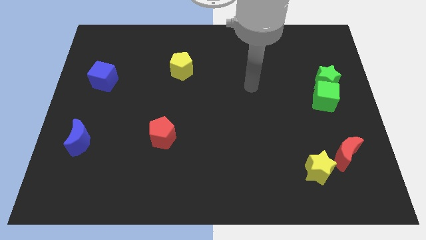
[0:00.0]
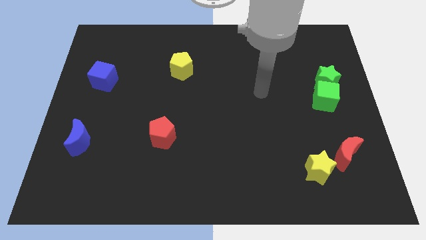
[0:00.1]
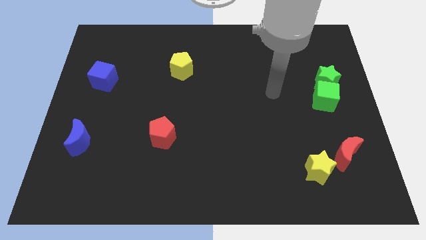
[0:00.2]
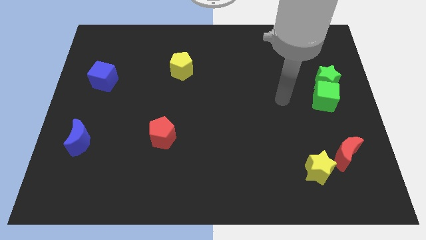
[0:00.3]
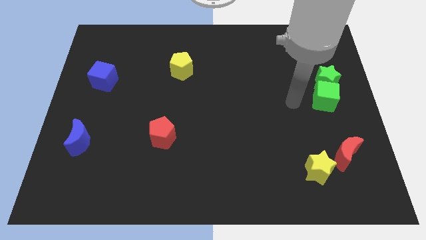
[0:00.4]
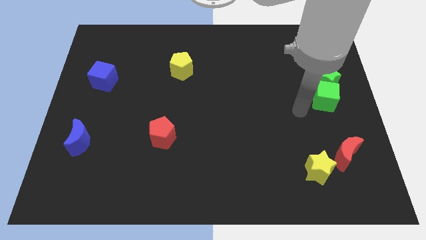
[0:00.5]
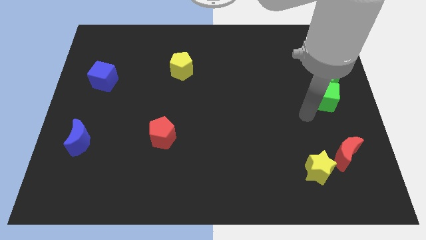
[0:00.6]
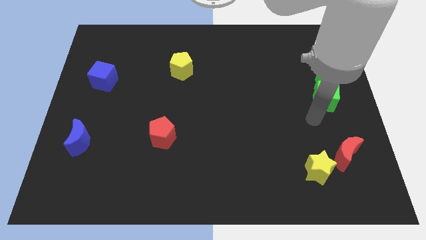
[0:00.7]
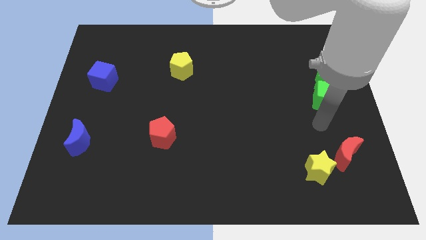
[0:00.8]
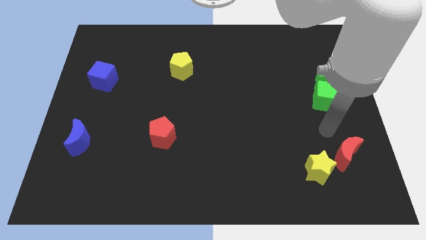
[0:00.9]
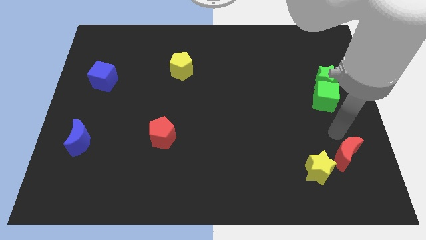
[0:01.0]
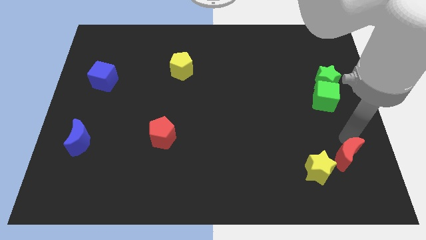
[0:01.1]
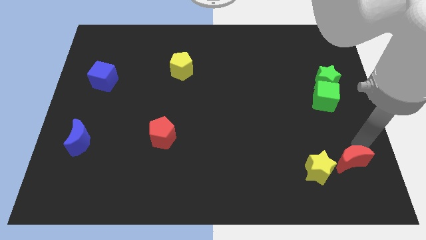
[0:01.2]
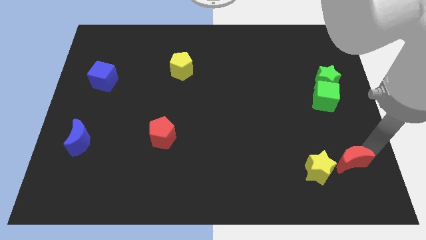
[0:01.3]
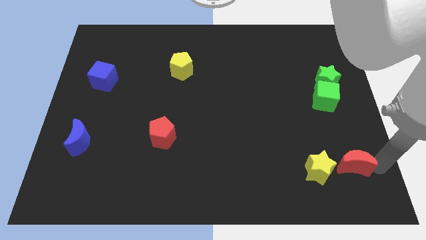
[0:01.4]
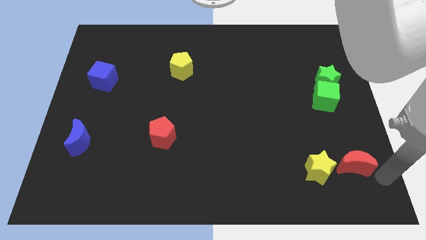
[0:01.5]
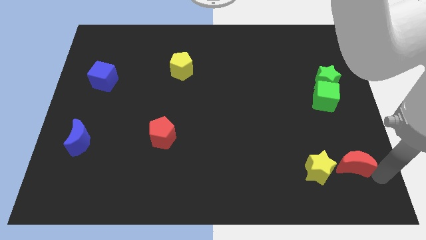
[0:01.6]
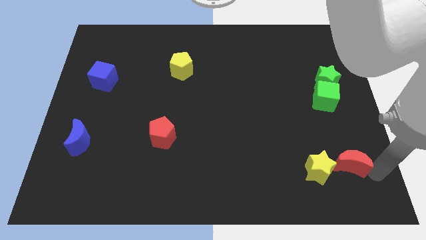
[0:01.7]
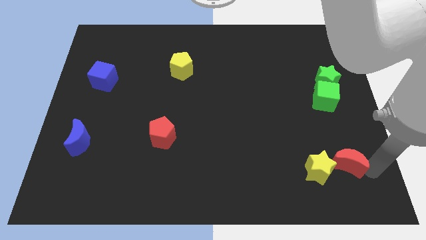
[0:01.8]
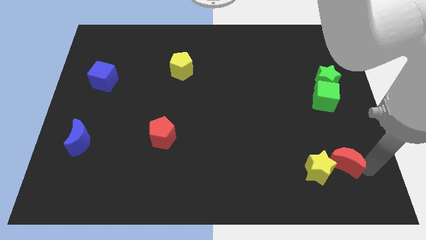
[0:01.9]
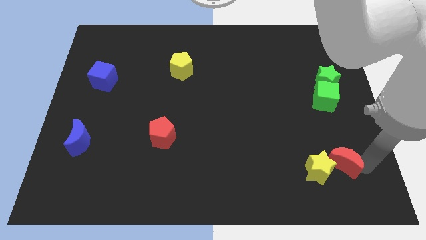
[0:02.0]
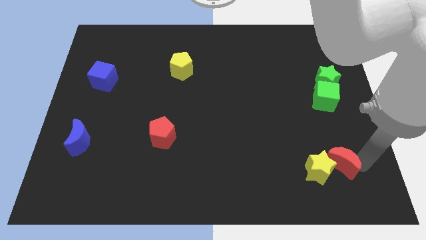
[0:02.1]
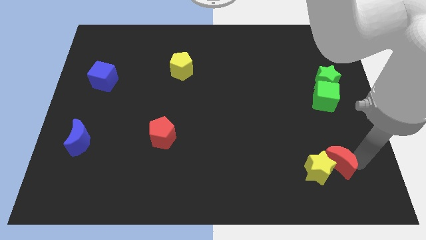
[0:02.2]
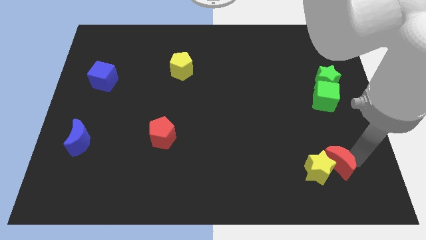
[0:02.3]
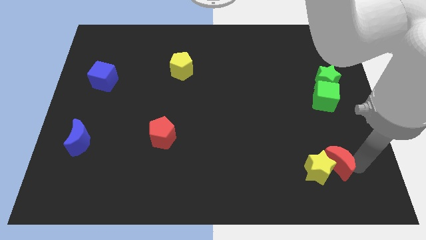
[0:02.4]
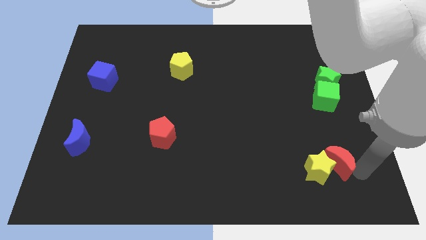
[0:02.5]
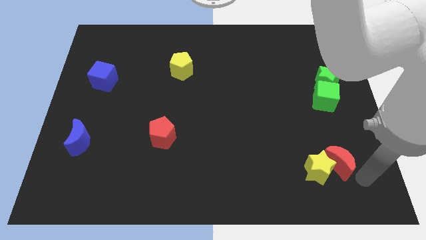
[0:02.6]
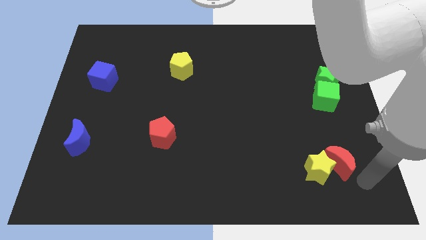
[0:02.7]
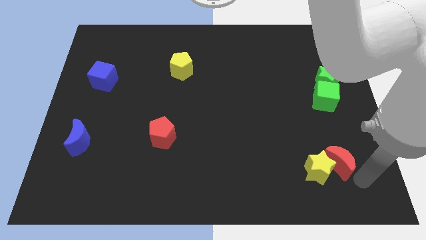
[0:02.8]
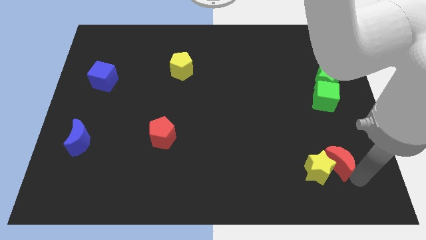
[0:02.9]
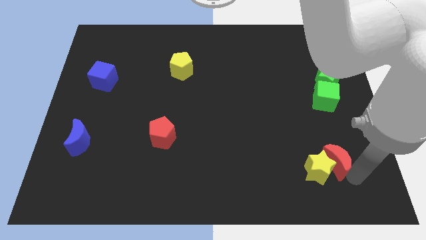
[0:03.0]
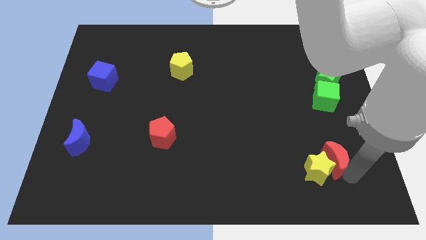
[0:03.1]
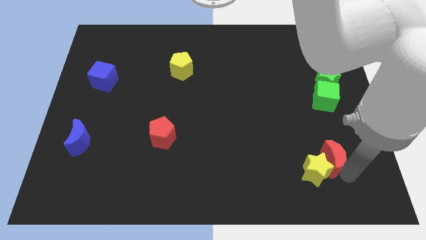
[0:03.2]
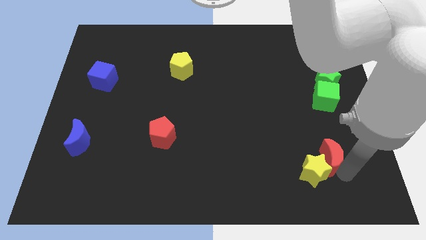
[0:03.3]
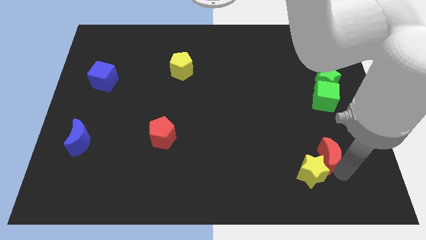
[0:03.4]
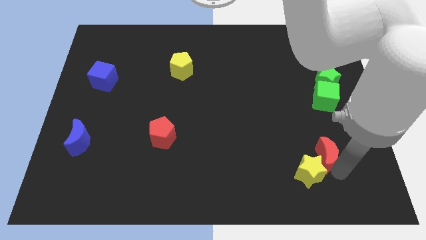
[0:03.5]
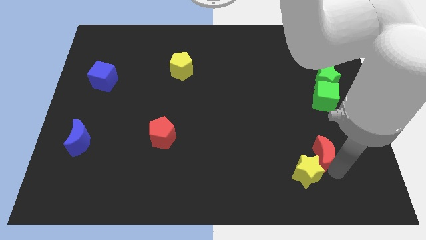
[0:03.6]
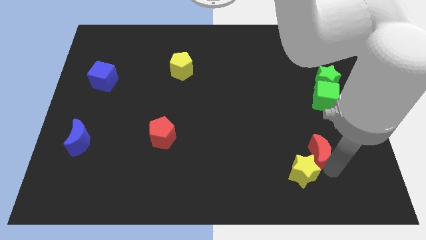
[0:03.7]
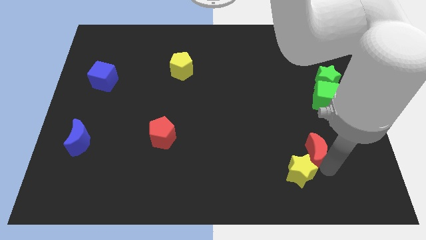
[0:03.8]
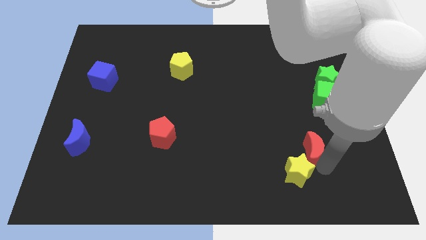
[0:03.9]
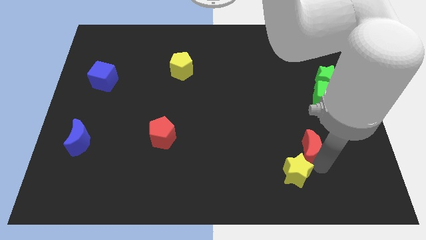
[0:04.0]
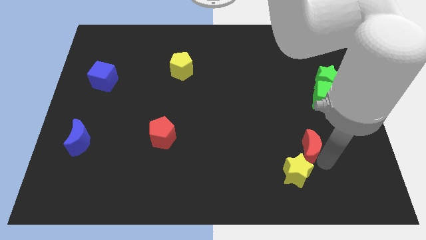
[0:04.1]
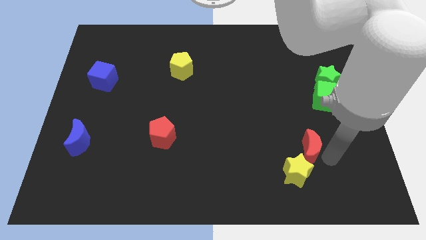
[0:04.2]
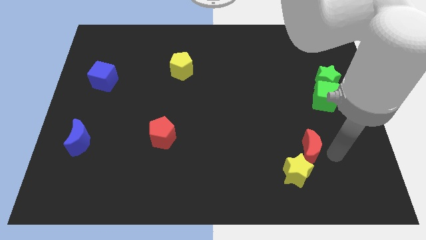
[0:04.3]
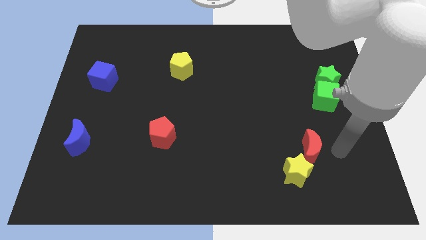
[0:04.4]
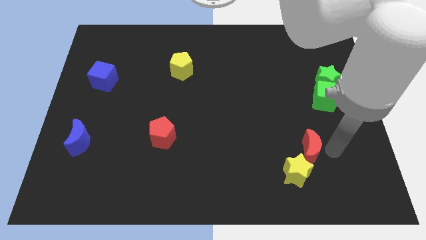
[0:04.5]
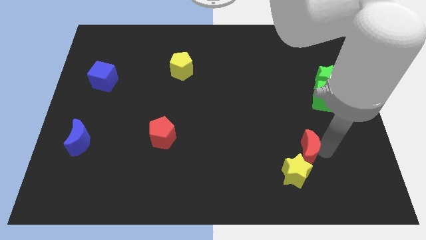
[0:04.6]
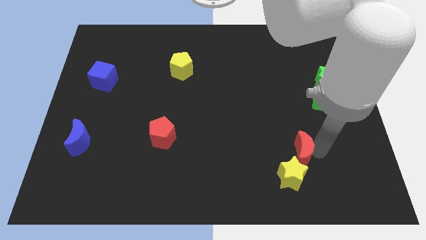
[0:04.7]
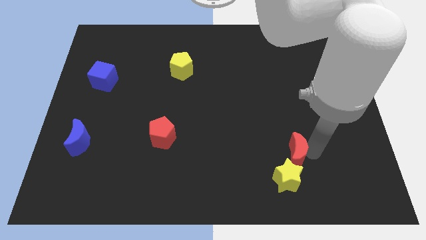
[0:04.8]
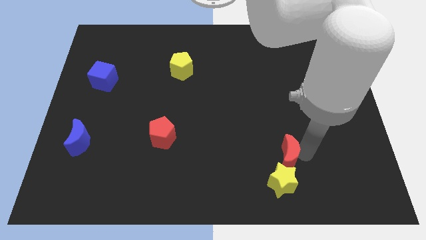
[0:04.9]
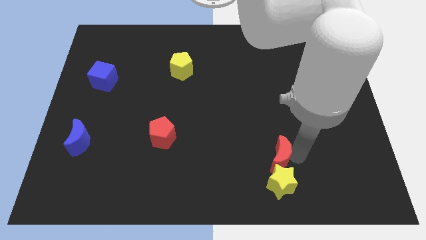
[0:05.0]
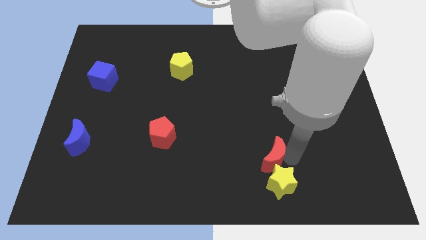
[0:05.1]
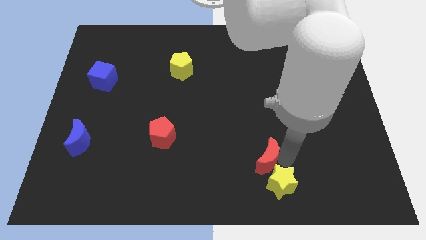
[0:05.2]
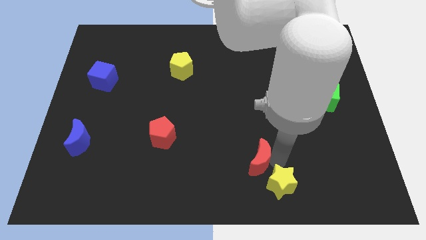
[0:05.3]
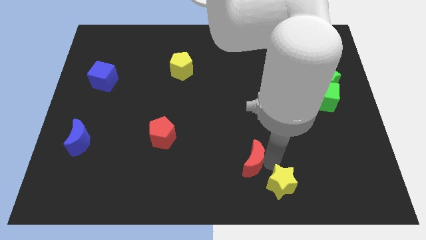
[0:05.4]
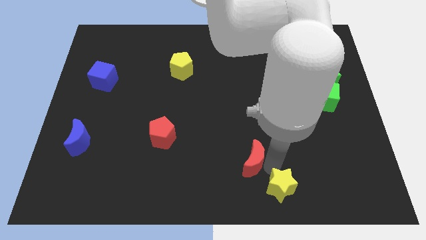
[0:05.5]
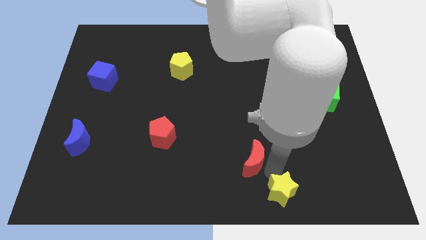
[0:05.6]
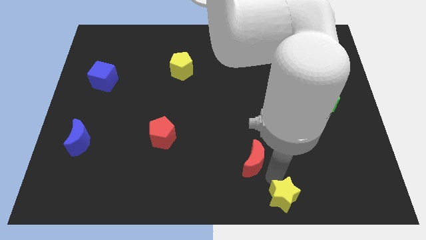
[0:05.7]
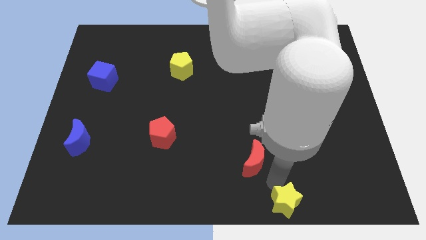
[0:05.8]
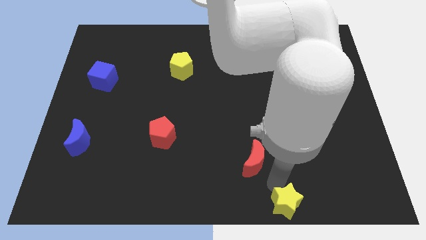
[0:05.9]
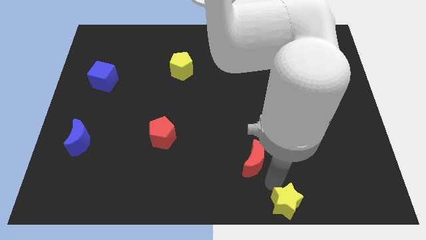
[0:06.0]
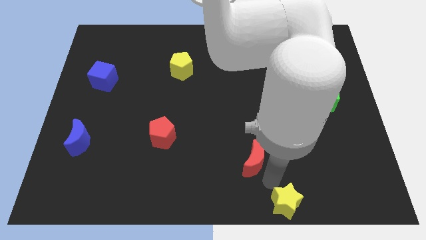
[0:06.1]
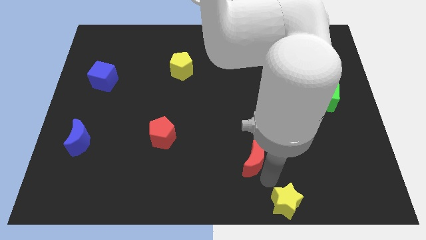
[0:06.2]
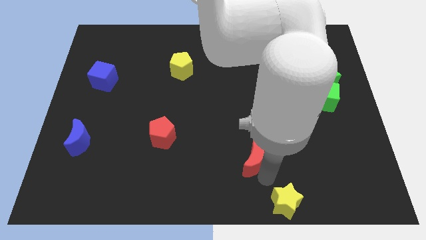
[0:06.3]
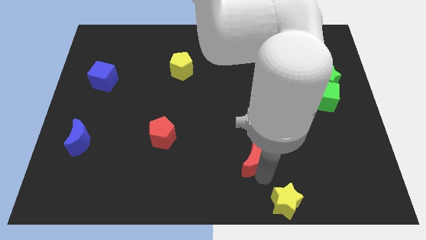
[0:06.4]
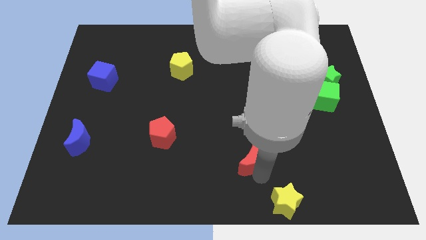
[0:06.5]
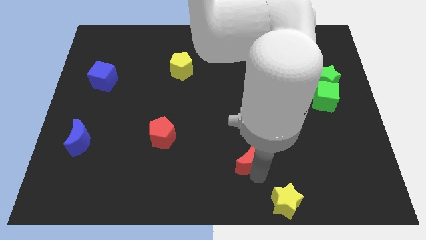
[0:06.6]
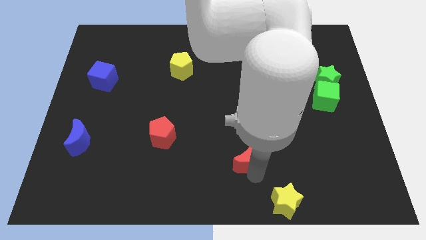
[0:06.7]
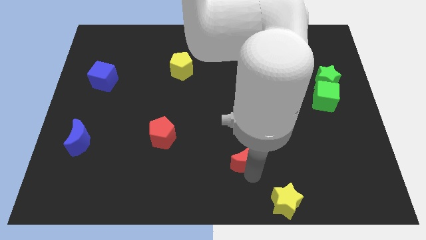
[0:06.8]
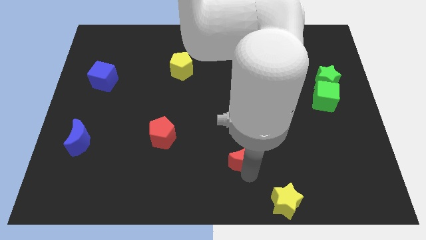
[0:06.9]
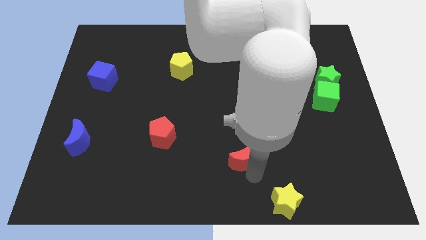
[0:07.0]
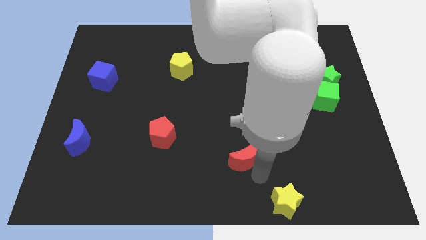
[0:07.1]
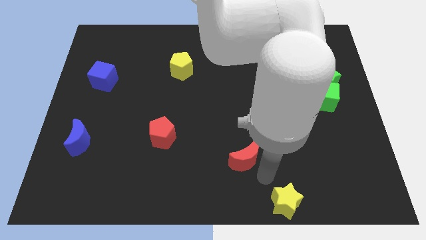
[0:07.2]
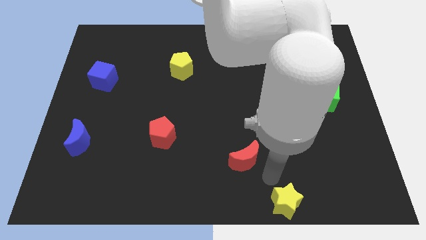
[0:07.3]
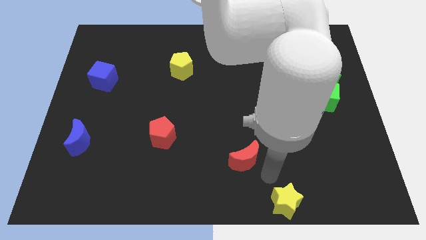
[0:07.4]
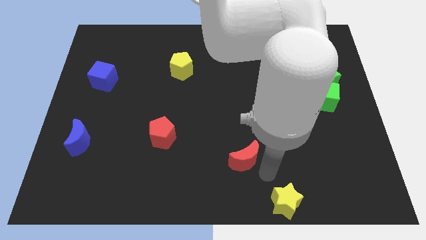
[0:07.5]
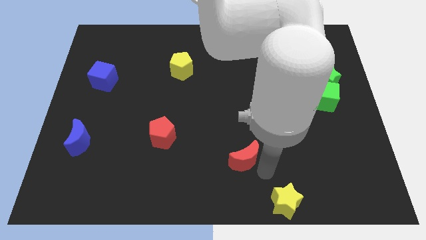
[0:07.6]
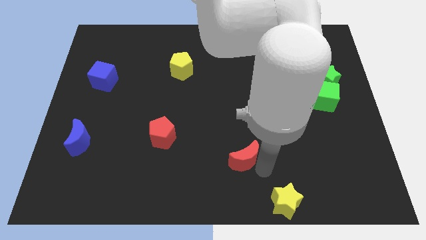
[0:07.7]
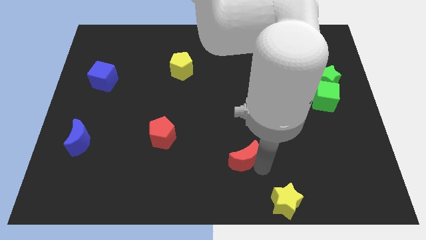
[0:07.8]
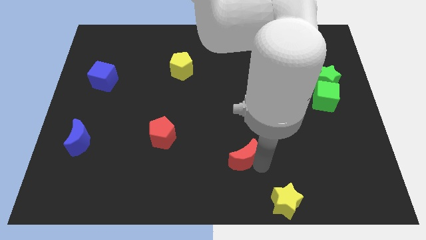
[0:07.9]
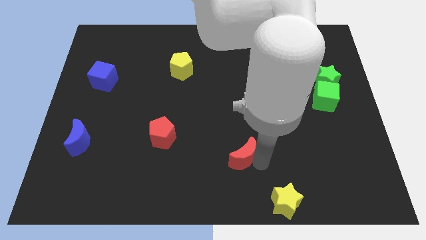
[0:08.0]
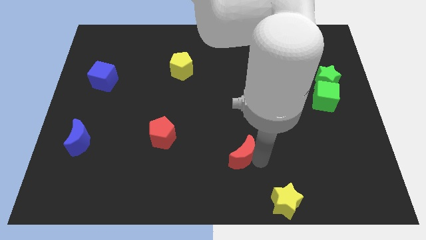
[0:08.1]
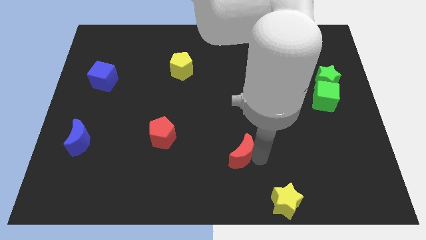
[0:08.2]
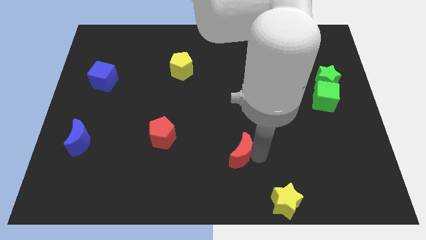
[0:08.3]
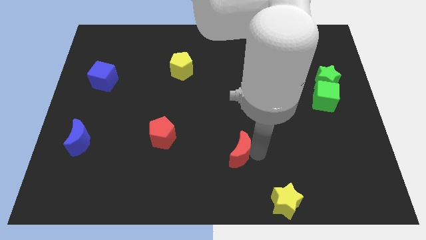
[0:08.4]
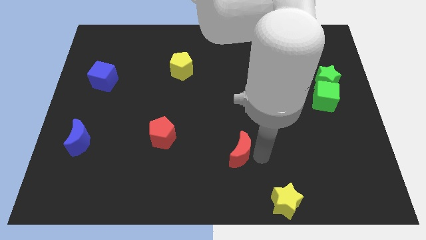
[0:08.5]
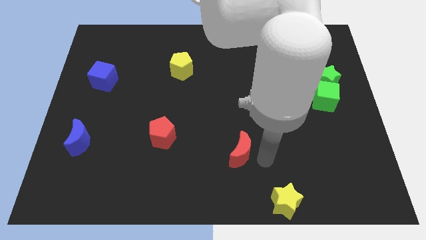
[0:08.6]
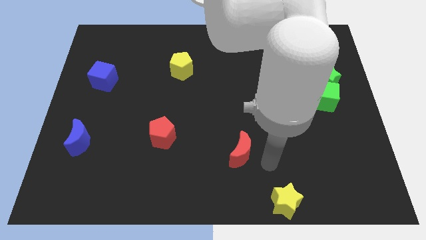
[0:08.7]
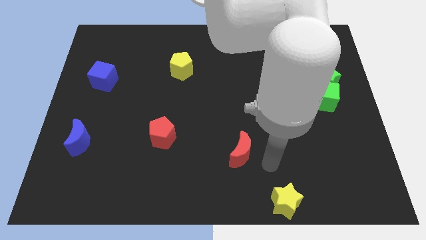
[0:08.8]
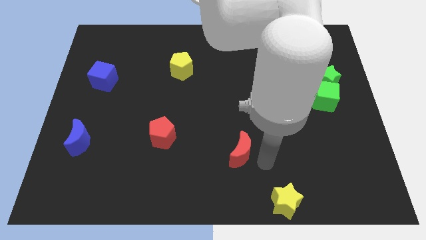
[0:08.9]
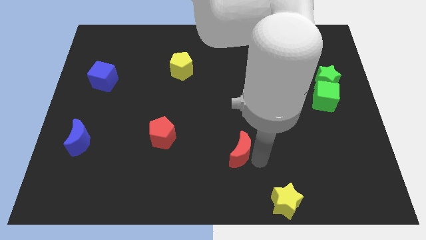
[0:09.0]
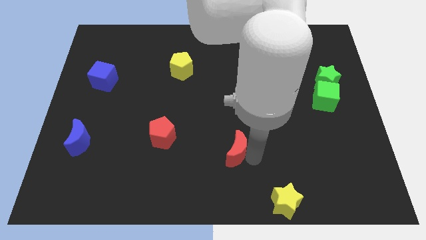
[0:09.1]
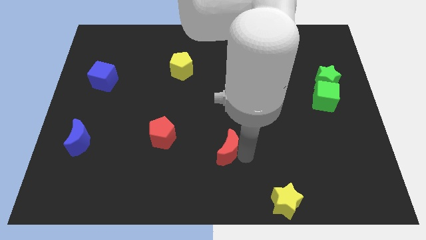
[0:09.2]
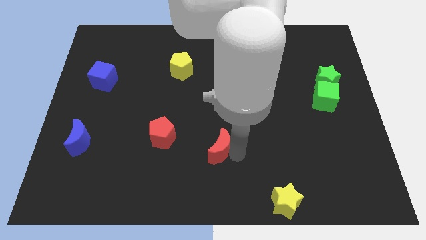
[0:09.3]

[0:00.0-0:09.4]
push the red moon right of the red pentagon
